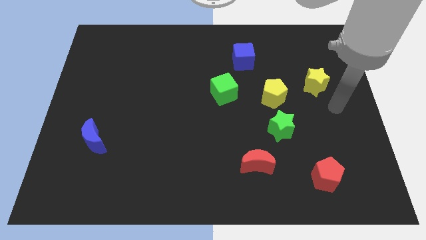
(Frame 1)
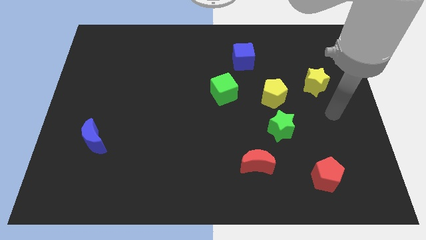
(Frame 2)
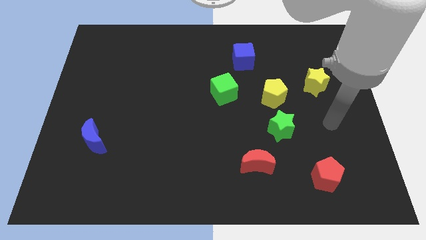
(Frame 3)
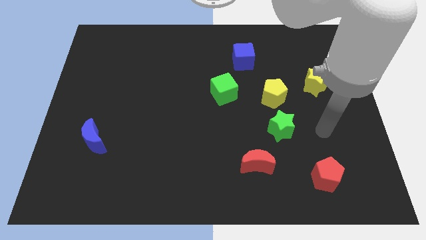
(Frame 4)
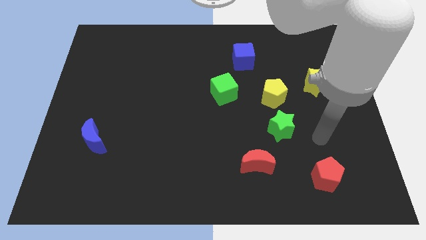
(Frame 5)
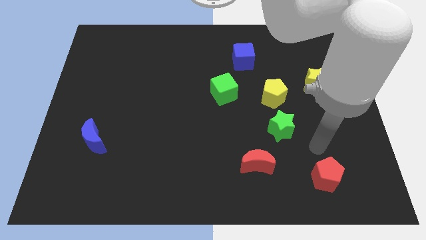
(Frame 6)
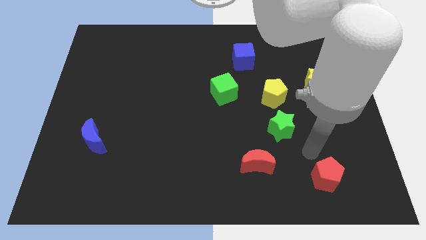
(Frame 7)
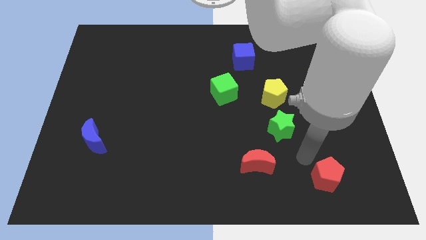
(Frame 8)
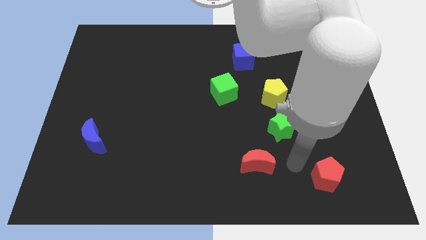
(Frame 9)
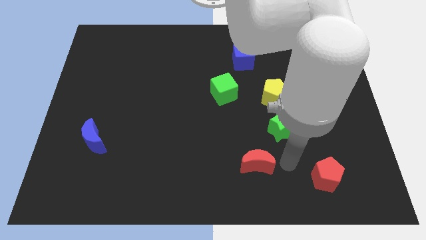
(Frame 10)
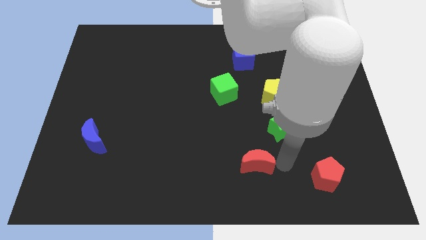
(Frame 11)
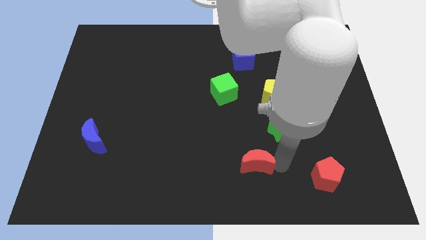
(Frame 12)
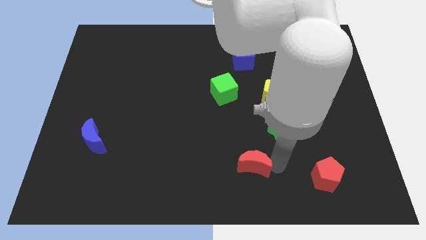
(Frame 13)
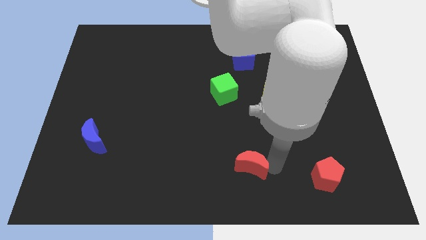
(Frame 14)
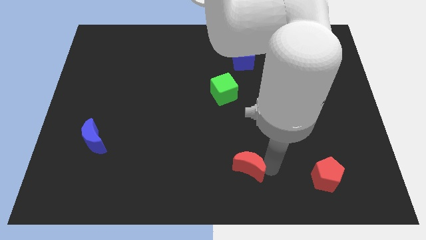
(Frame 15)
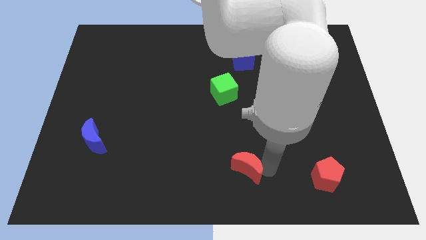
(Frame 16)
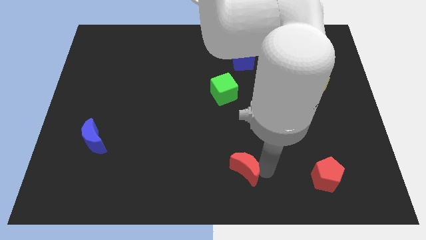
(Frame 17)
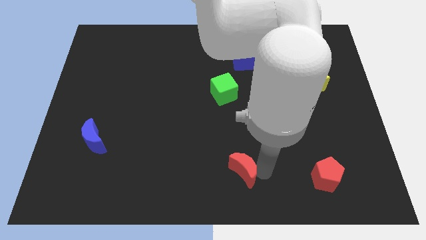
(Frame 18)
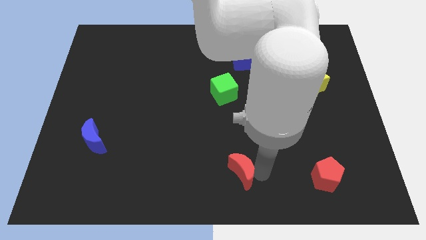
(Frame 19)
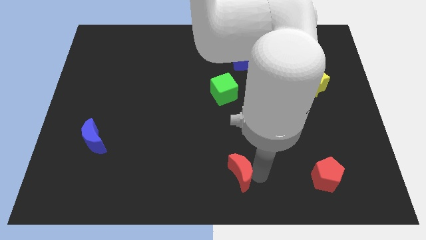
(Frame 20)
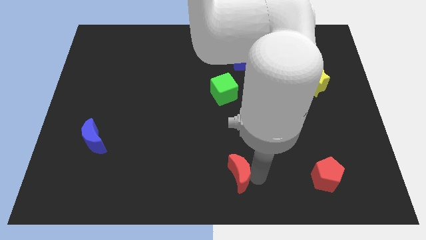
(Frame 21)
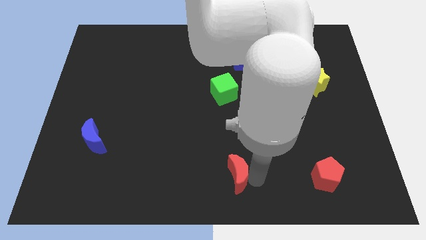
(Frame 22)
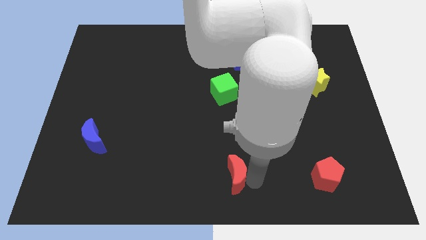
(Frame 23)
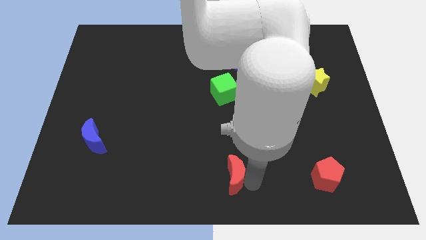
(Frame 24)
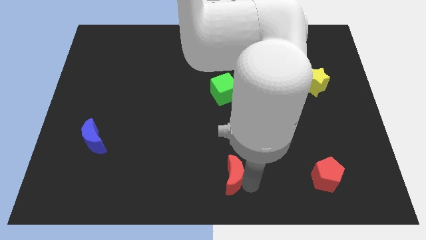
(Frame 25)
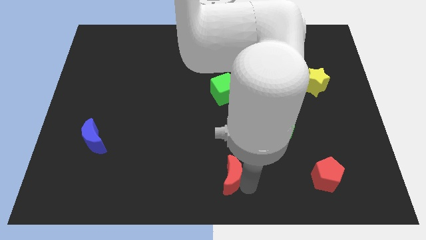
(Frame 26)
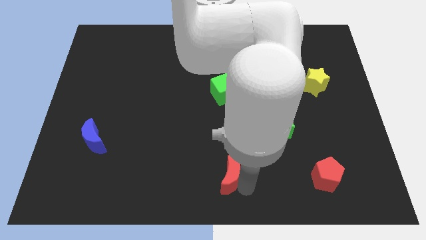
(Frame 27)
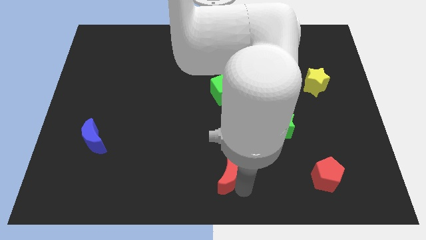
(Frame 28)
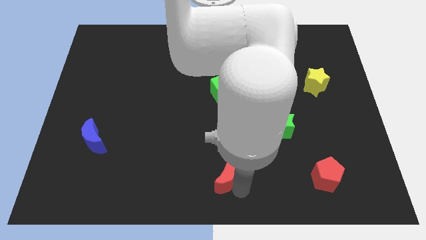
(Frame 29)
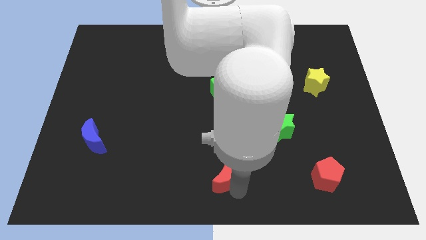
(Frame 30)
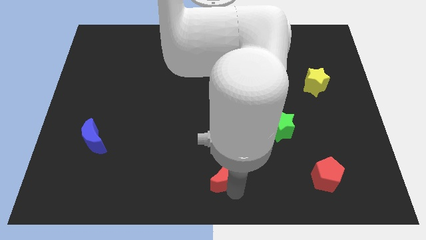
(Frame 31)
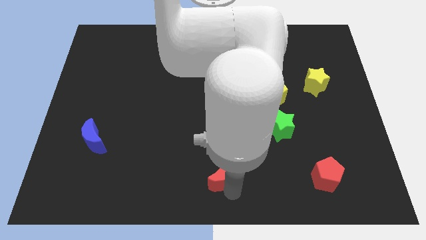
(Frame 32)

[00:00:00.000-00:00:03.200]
slightly move the red moon to the left

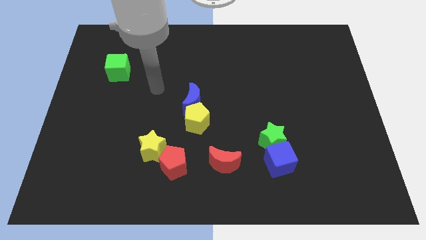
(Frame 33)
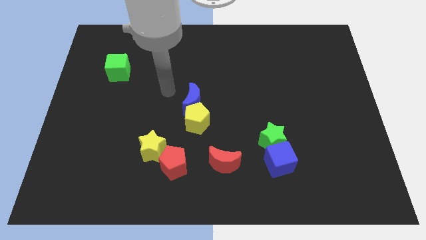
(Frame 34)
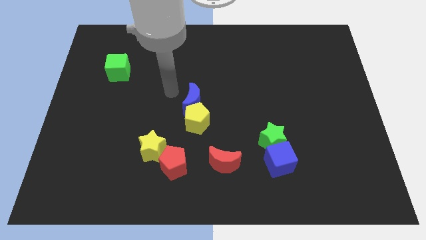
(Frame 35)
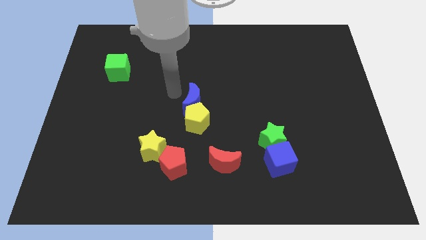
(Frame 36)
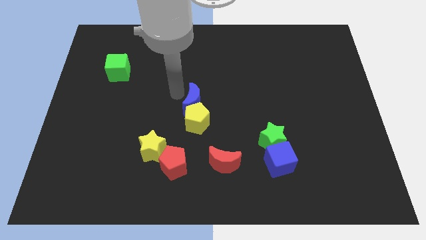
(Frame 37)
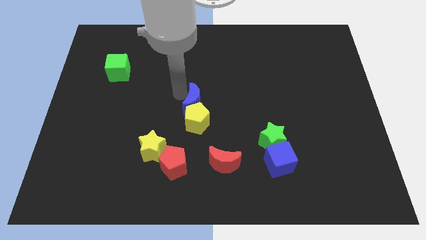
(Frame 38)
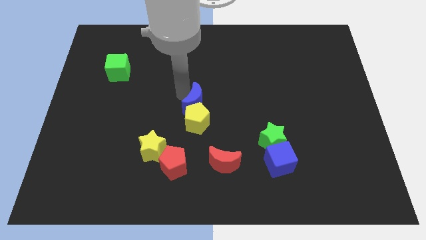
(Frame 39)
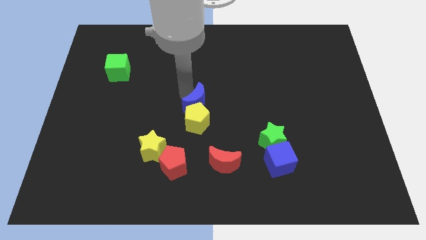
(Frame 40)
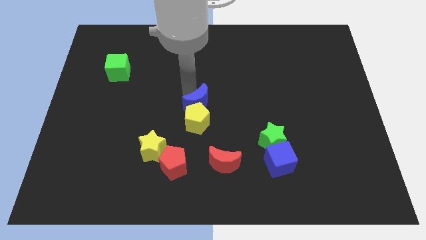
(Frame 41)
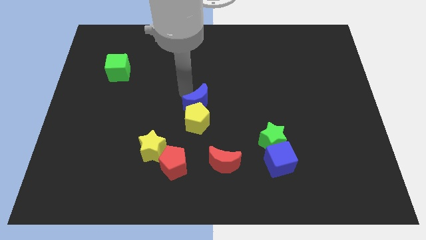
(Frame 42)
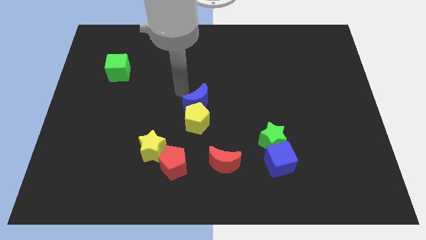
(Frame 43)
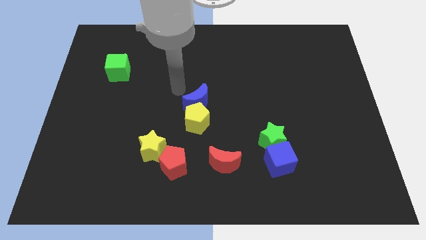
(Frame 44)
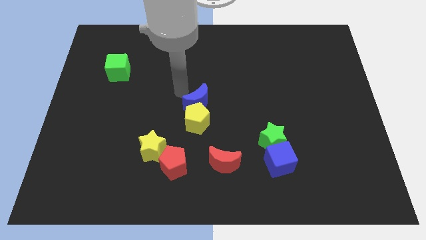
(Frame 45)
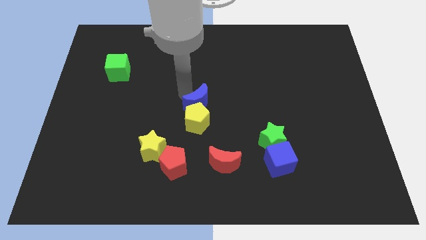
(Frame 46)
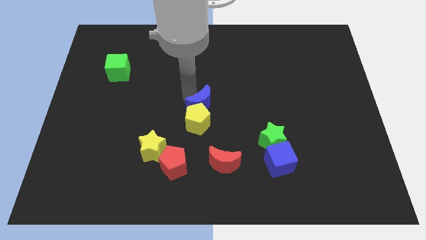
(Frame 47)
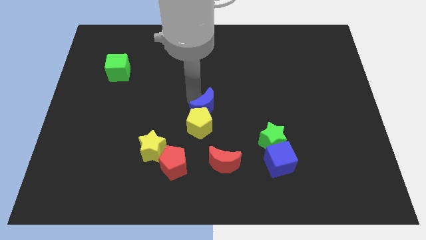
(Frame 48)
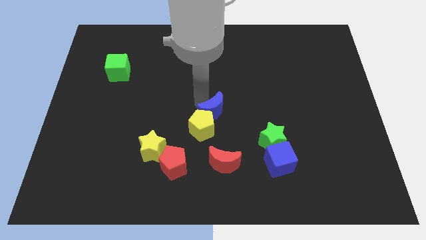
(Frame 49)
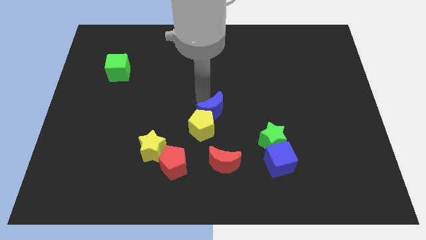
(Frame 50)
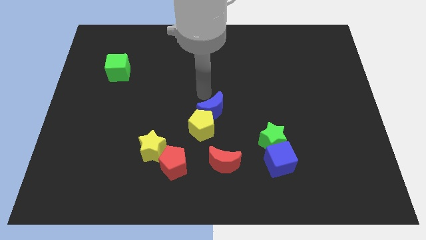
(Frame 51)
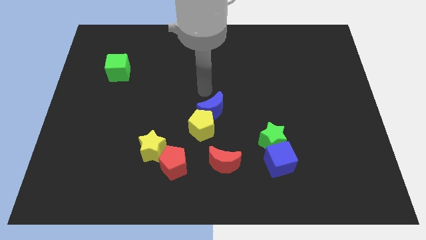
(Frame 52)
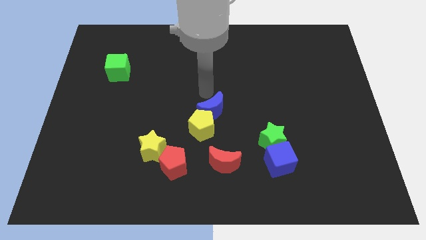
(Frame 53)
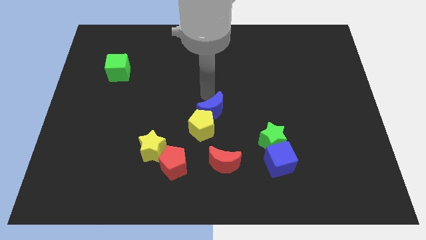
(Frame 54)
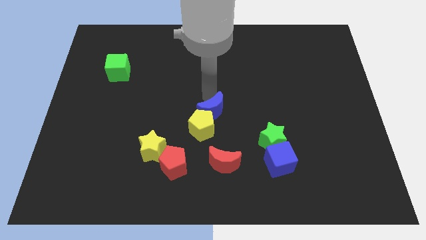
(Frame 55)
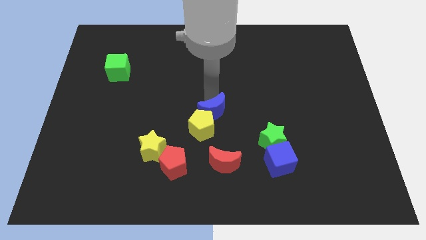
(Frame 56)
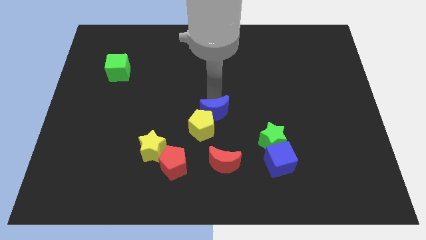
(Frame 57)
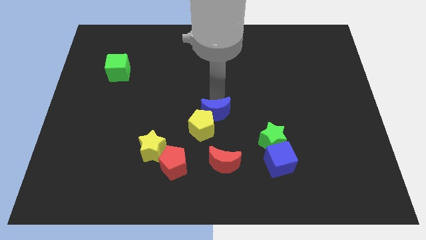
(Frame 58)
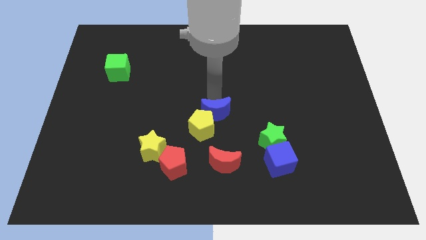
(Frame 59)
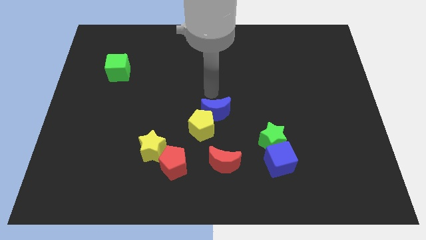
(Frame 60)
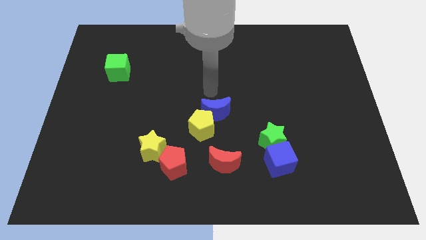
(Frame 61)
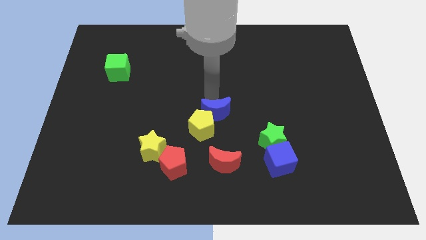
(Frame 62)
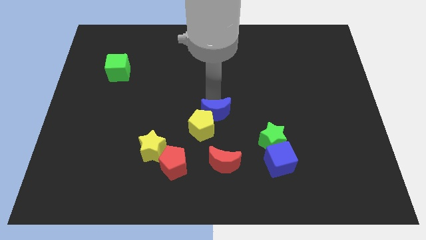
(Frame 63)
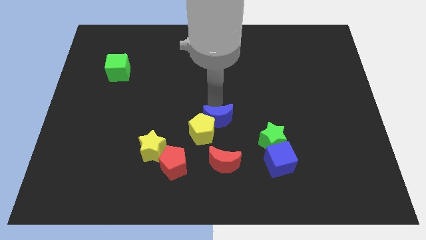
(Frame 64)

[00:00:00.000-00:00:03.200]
slide the blue moon diagonally down and right slightly

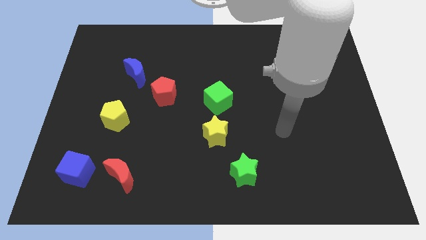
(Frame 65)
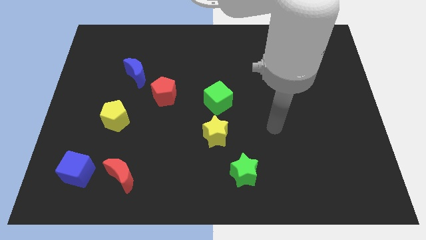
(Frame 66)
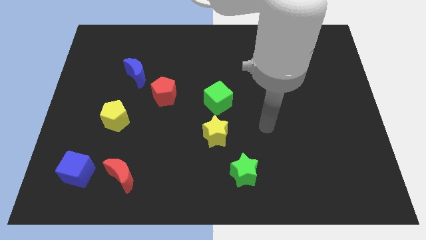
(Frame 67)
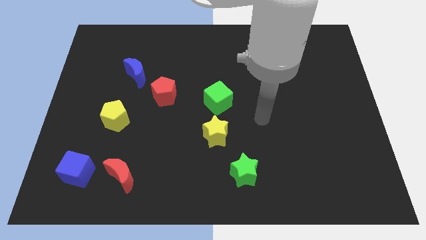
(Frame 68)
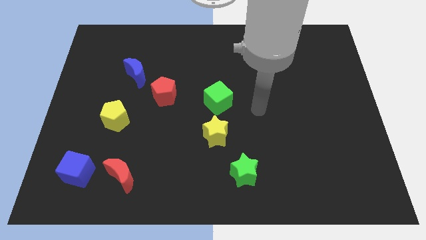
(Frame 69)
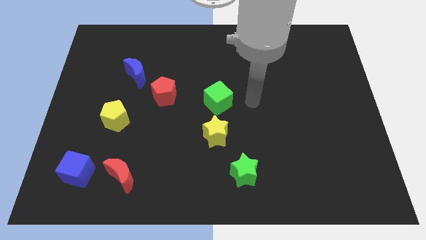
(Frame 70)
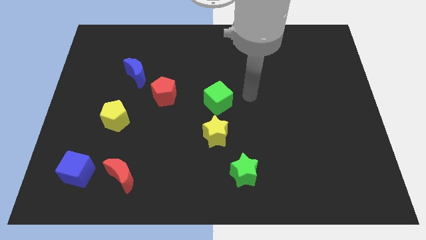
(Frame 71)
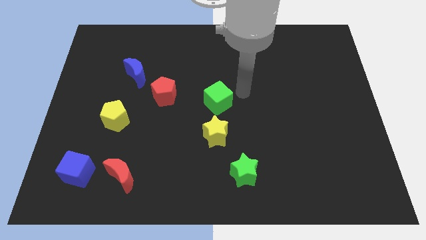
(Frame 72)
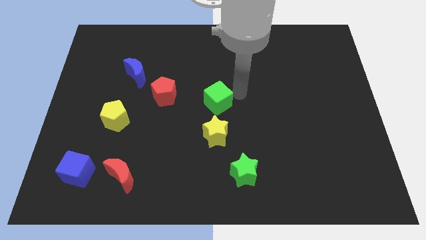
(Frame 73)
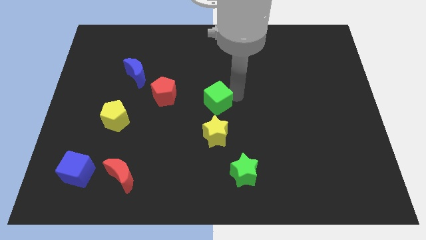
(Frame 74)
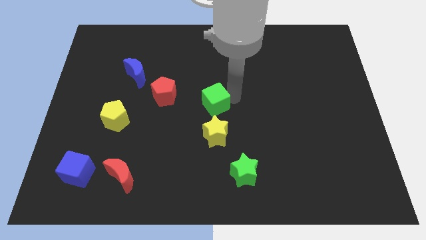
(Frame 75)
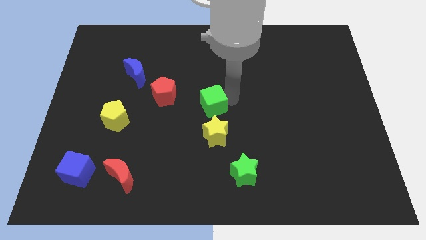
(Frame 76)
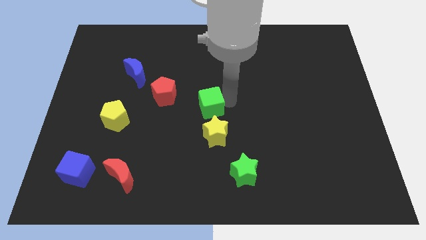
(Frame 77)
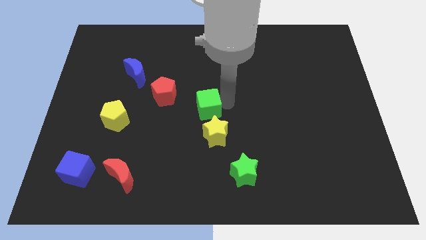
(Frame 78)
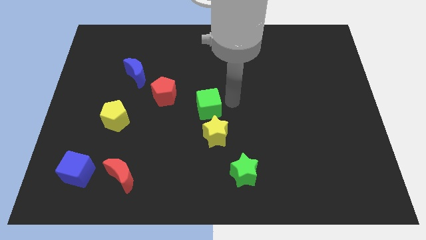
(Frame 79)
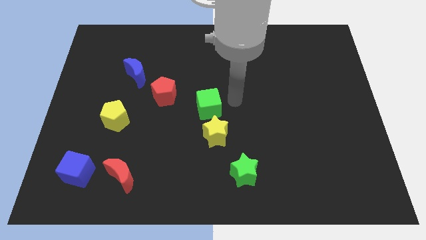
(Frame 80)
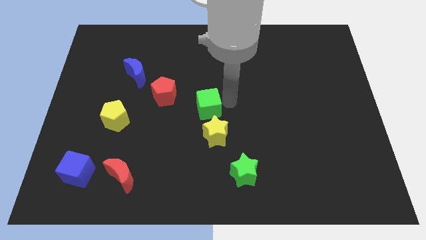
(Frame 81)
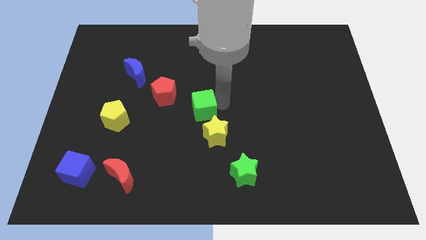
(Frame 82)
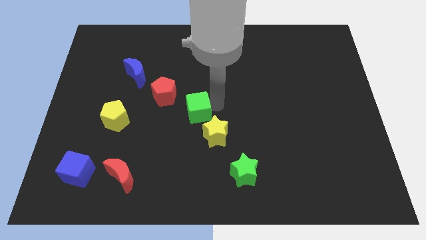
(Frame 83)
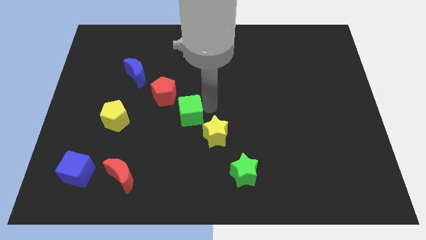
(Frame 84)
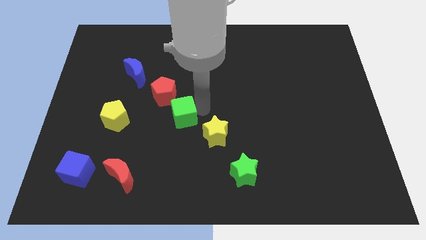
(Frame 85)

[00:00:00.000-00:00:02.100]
slightly slide the green cube left
